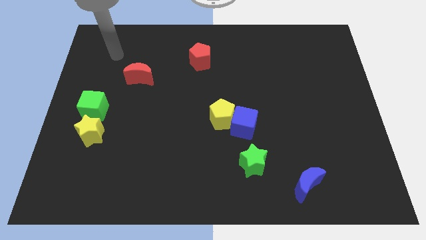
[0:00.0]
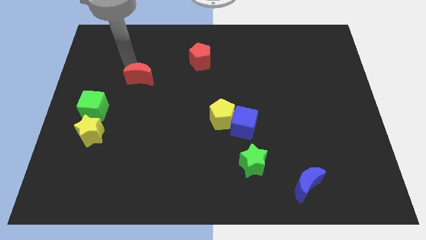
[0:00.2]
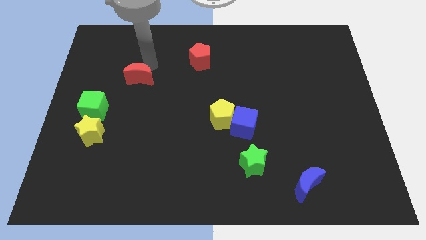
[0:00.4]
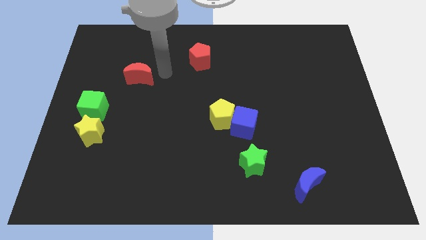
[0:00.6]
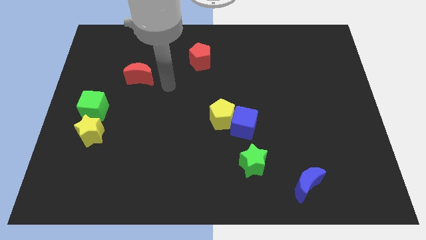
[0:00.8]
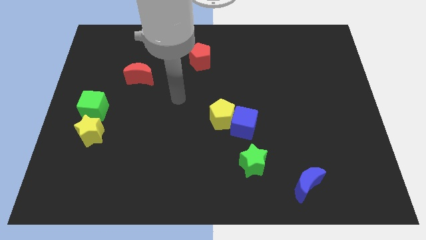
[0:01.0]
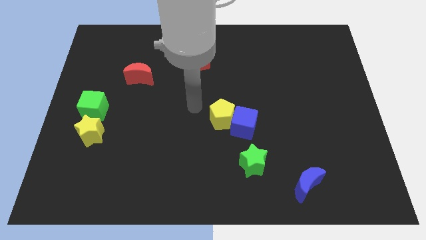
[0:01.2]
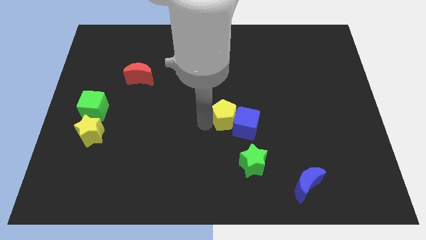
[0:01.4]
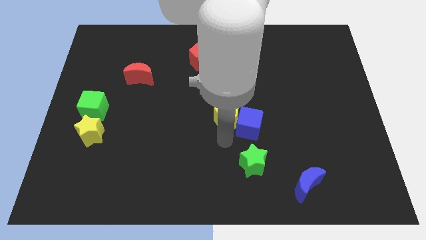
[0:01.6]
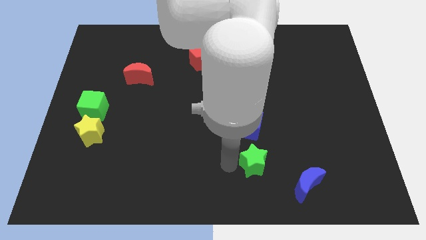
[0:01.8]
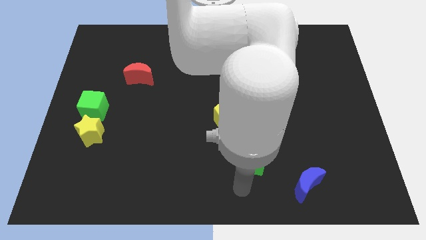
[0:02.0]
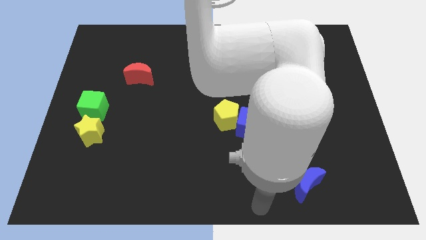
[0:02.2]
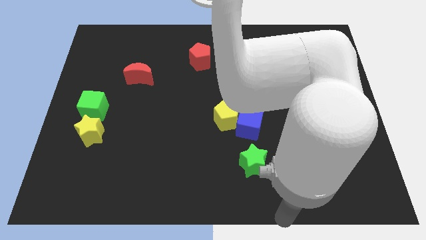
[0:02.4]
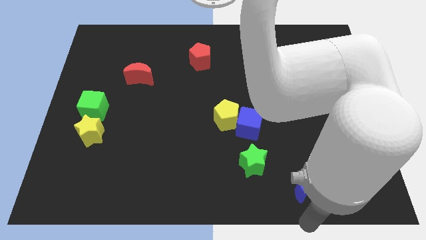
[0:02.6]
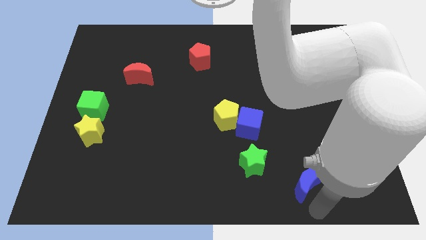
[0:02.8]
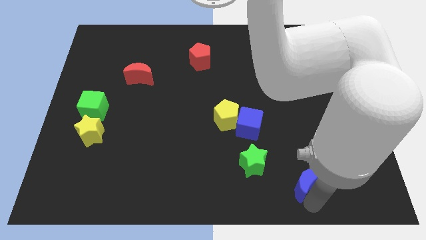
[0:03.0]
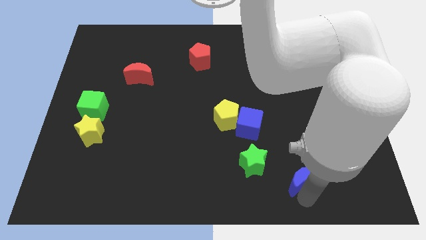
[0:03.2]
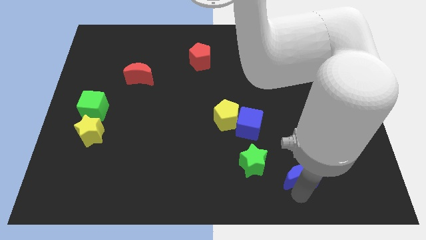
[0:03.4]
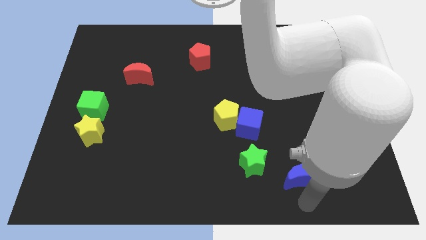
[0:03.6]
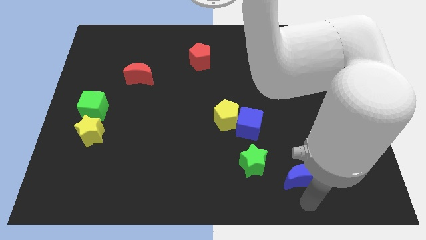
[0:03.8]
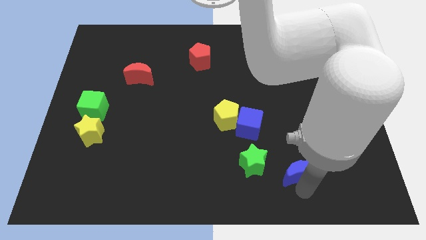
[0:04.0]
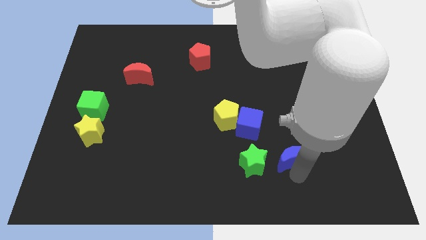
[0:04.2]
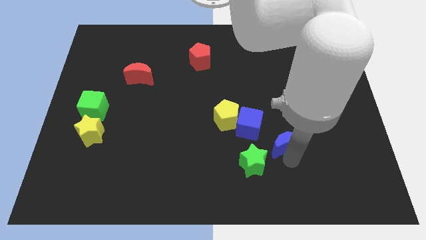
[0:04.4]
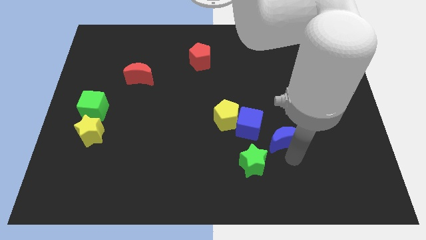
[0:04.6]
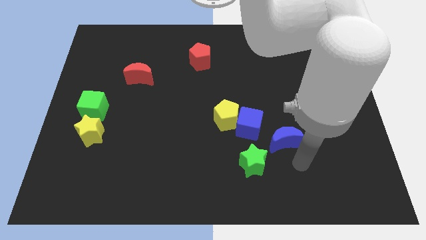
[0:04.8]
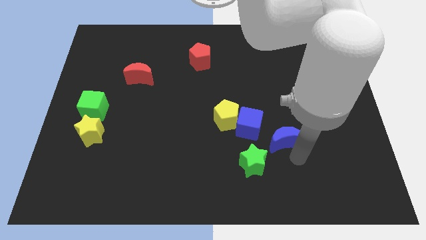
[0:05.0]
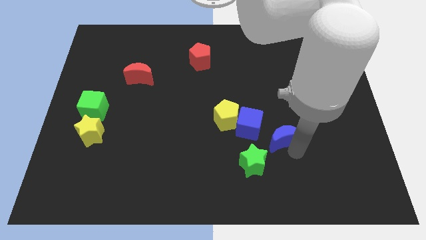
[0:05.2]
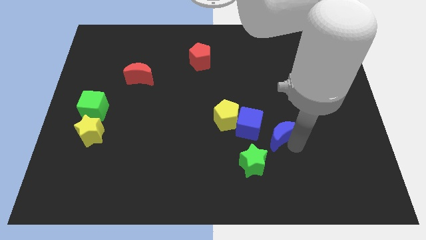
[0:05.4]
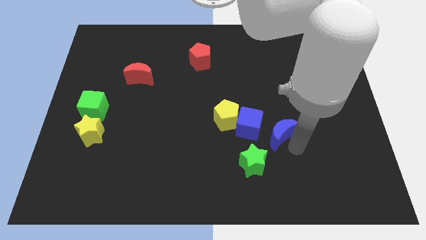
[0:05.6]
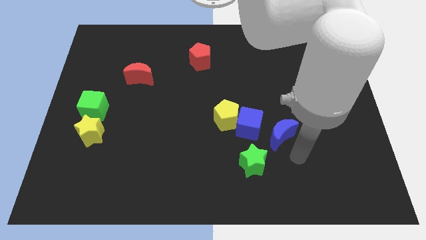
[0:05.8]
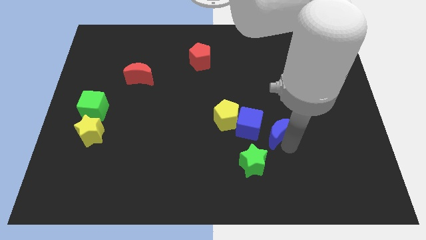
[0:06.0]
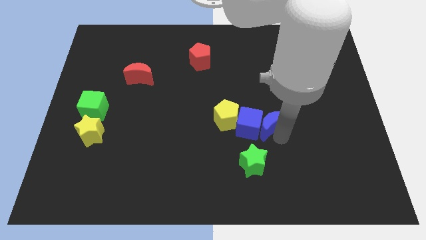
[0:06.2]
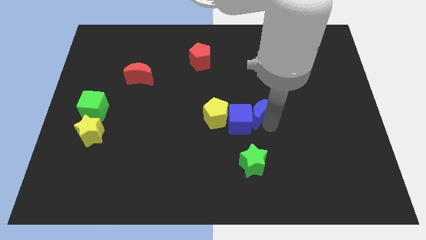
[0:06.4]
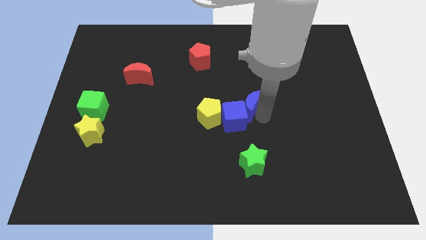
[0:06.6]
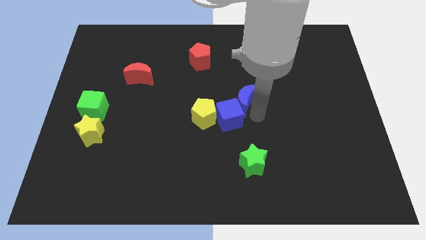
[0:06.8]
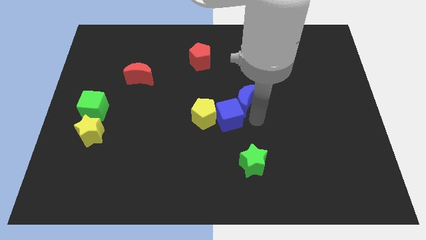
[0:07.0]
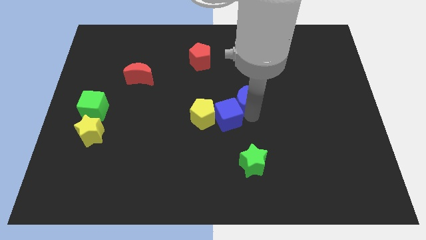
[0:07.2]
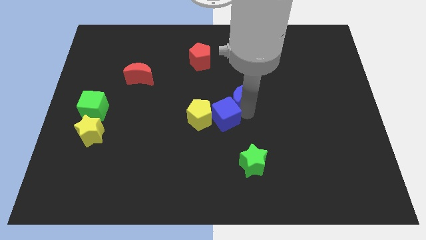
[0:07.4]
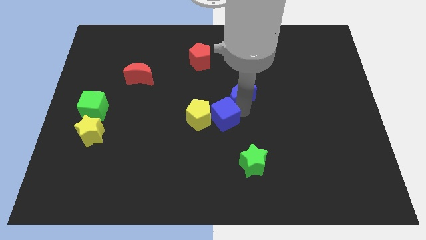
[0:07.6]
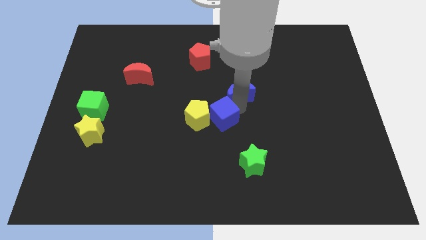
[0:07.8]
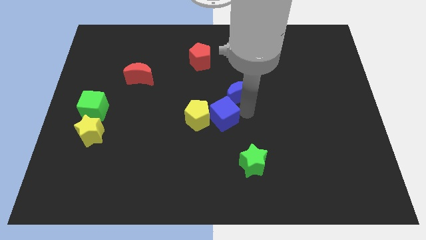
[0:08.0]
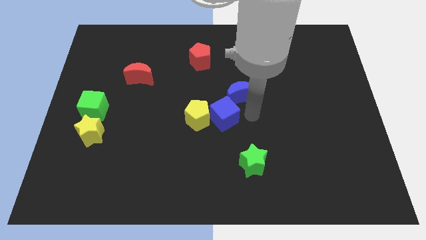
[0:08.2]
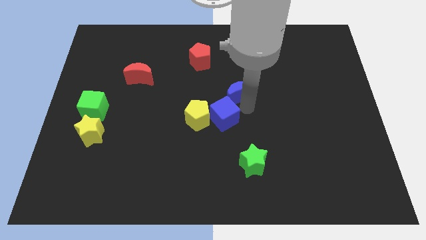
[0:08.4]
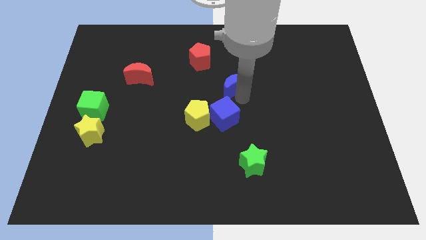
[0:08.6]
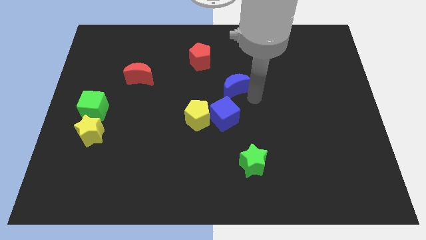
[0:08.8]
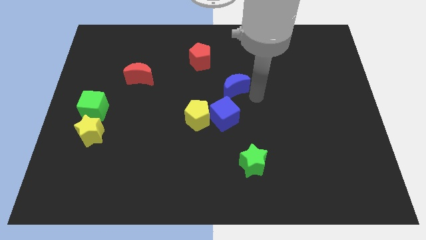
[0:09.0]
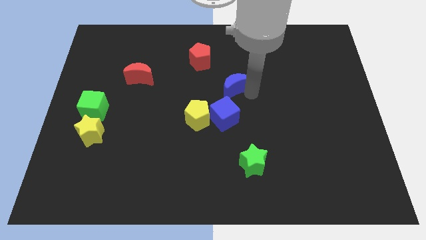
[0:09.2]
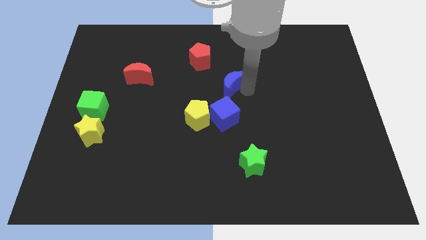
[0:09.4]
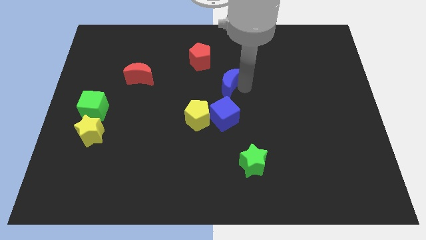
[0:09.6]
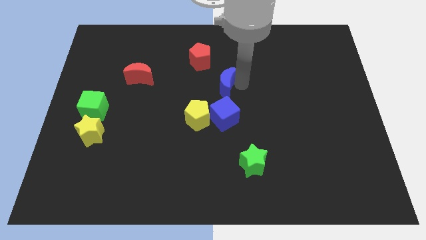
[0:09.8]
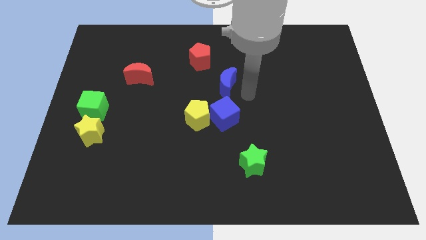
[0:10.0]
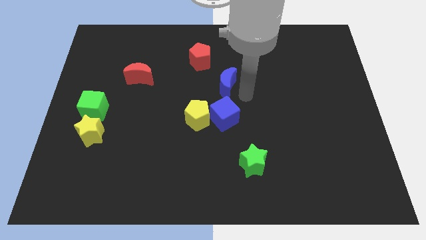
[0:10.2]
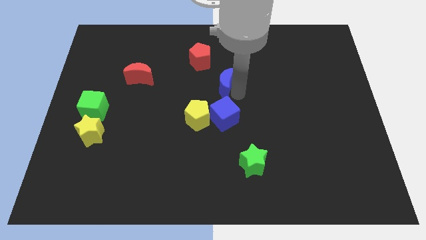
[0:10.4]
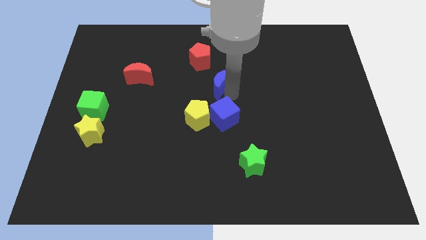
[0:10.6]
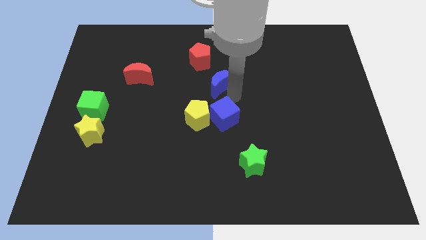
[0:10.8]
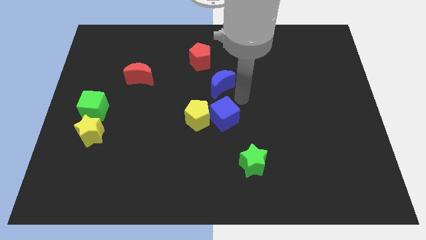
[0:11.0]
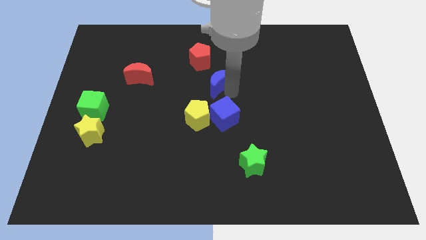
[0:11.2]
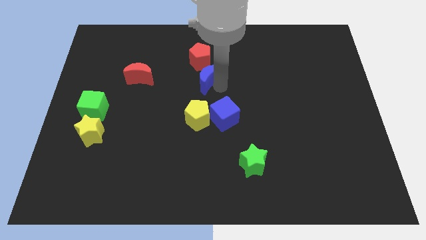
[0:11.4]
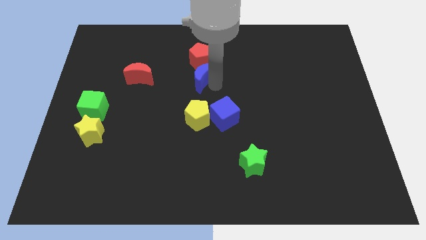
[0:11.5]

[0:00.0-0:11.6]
slide the blue moon right of the red moon

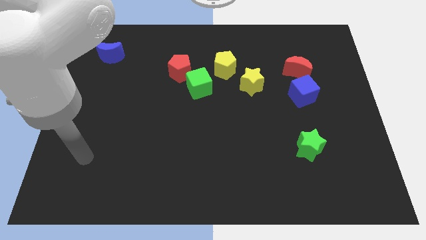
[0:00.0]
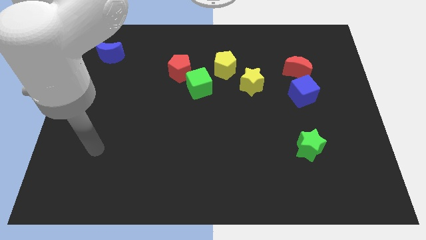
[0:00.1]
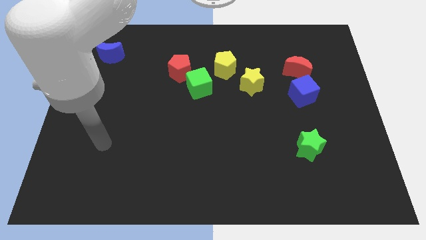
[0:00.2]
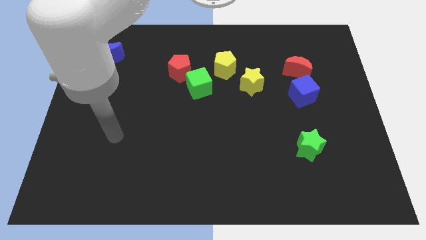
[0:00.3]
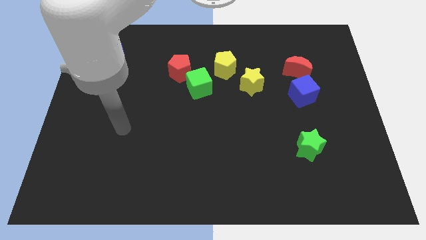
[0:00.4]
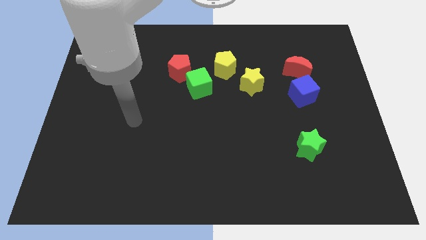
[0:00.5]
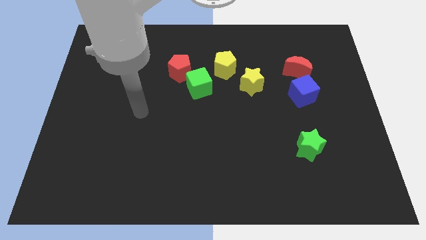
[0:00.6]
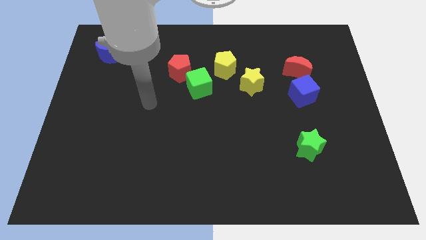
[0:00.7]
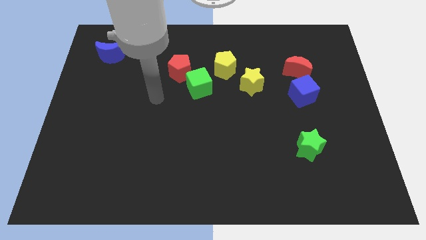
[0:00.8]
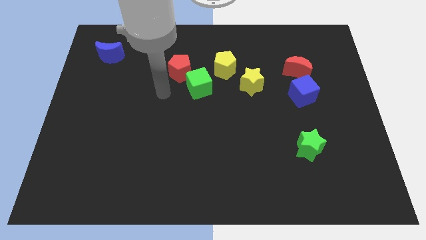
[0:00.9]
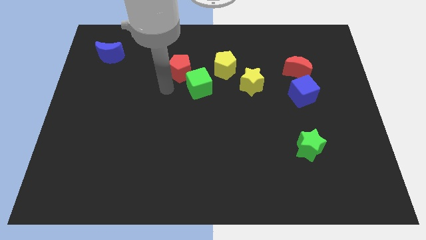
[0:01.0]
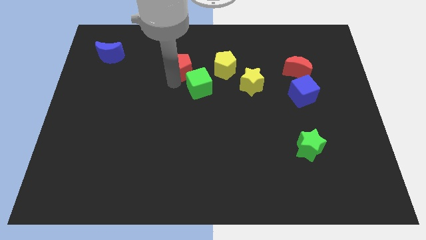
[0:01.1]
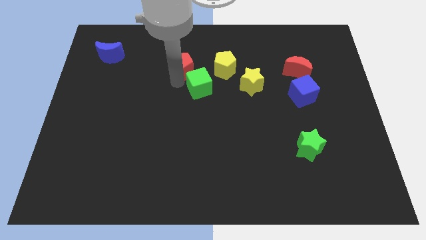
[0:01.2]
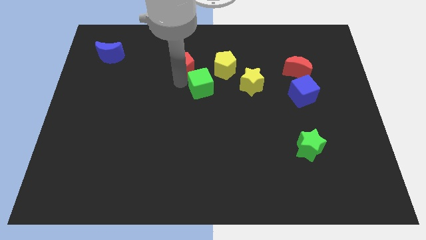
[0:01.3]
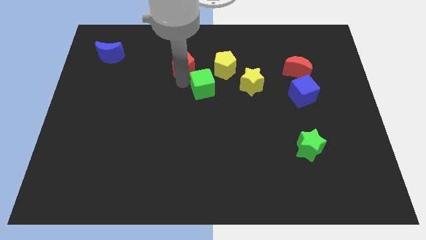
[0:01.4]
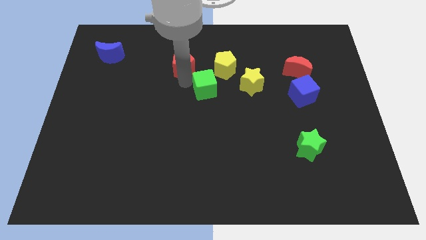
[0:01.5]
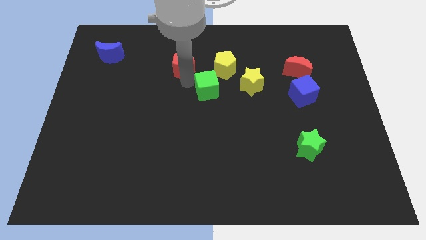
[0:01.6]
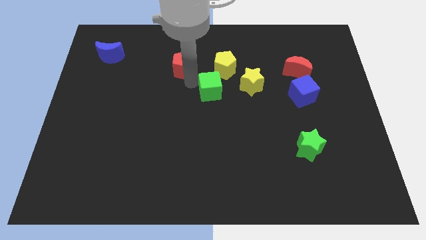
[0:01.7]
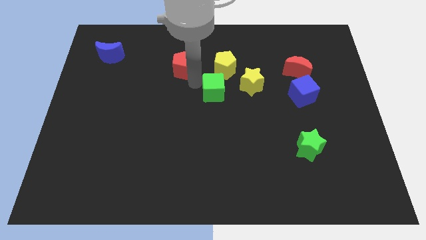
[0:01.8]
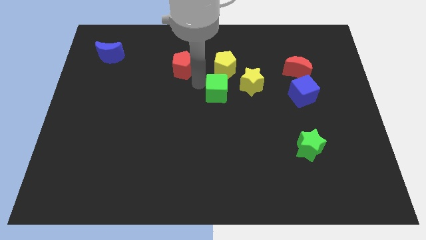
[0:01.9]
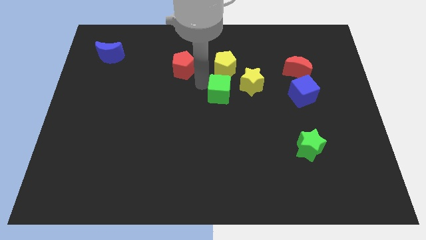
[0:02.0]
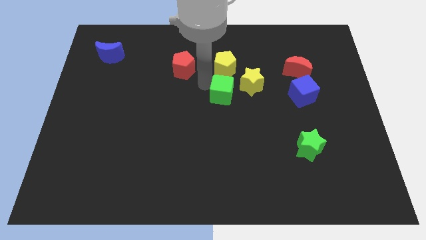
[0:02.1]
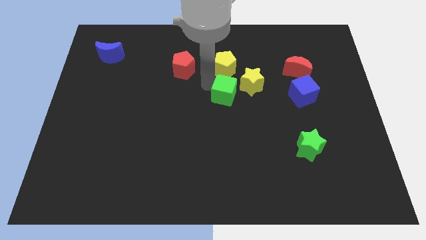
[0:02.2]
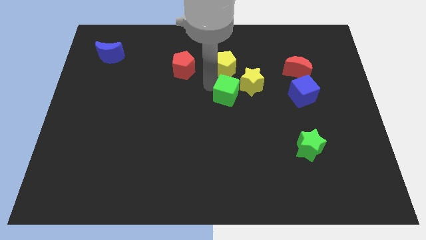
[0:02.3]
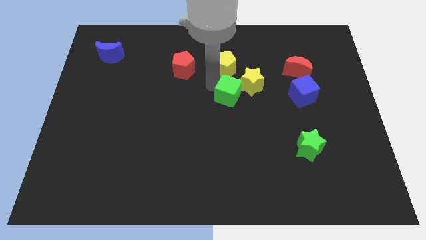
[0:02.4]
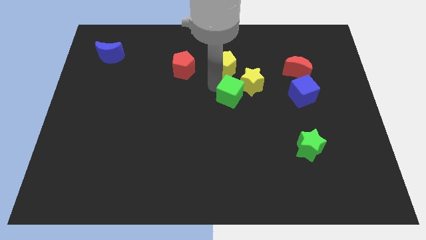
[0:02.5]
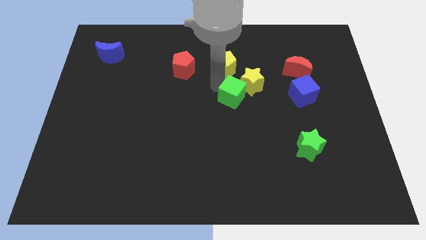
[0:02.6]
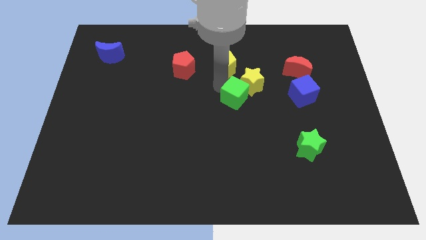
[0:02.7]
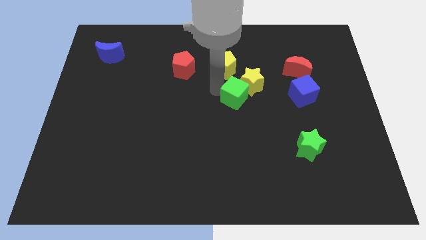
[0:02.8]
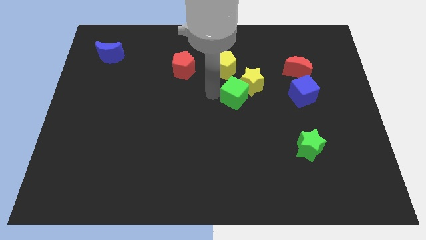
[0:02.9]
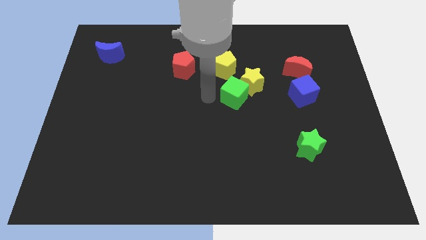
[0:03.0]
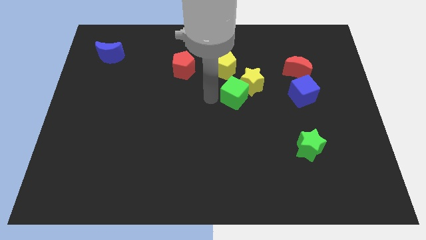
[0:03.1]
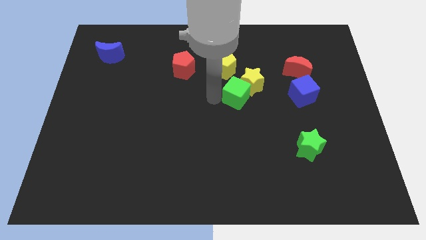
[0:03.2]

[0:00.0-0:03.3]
slide the green cube left of the blue cube
